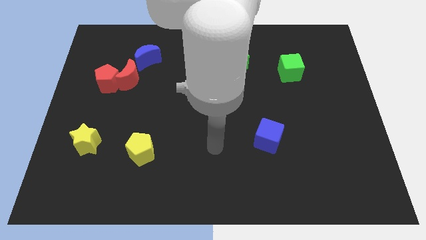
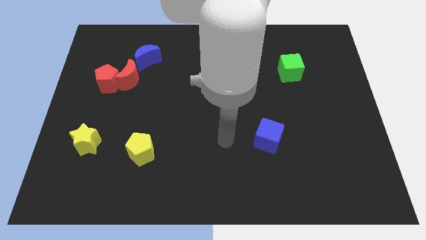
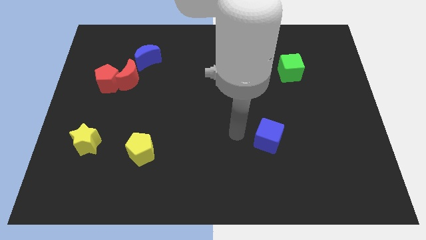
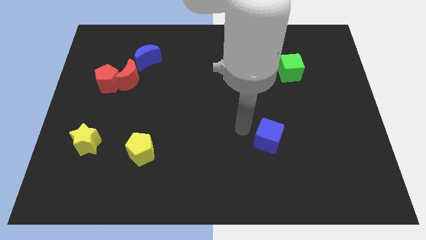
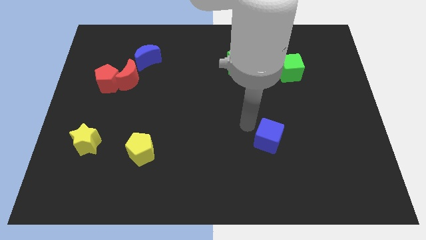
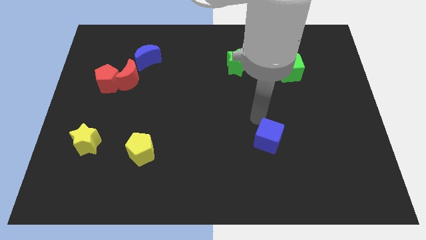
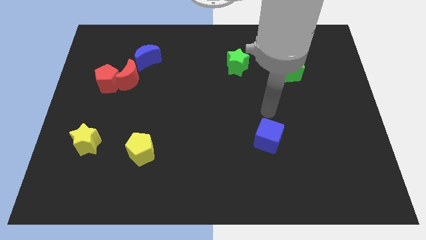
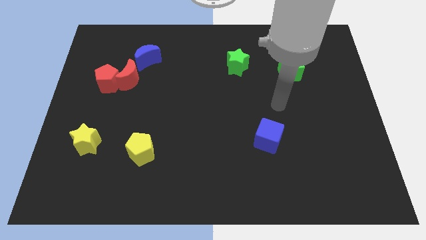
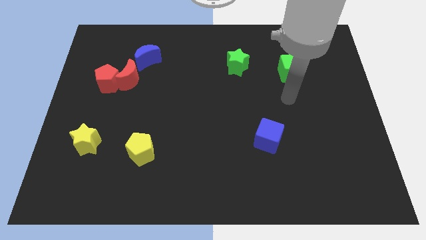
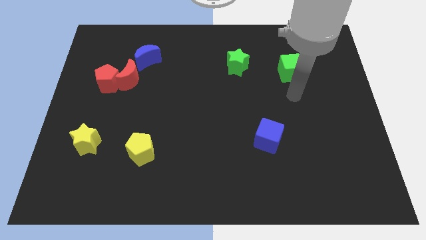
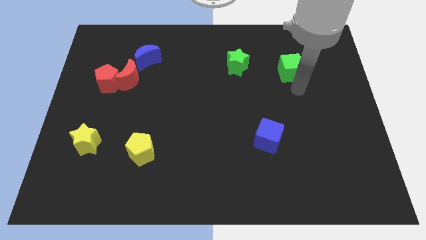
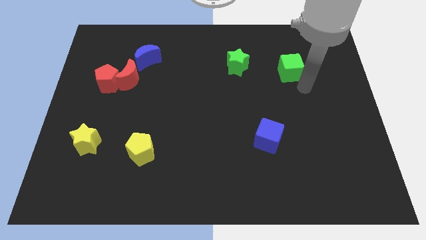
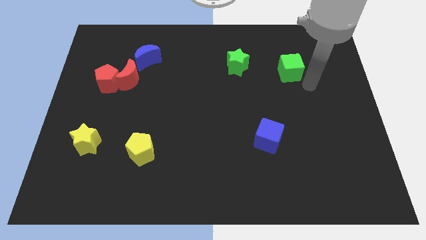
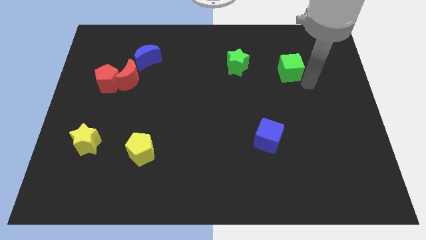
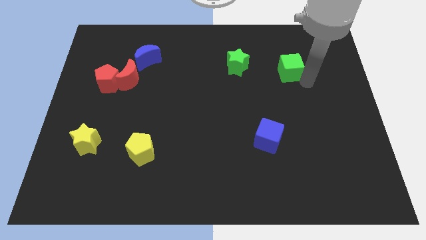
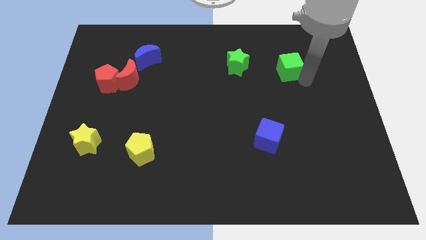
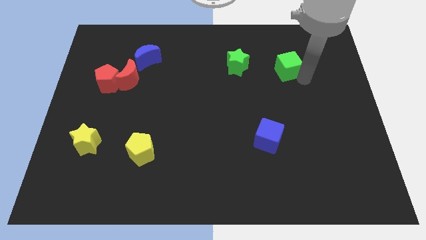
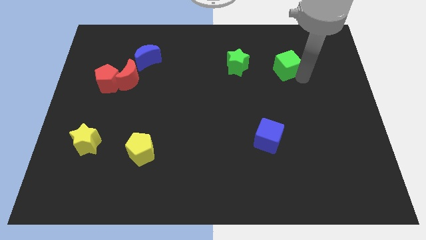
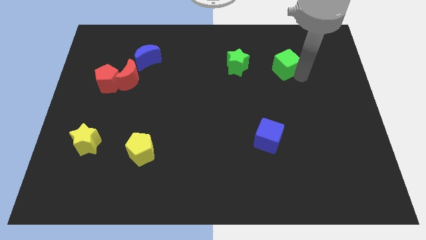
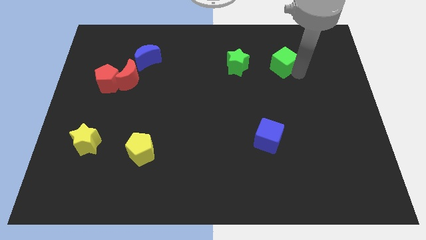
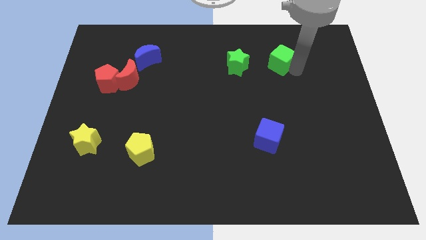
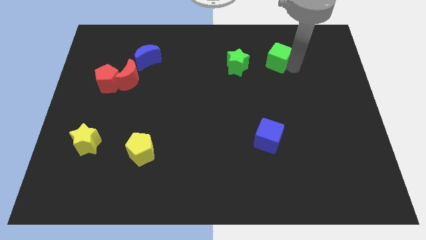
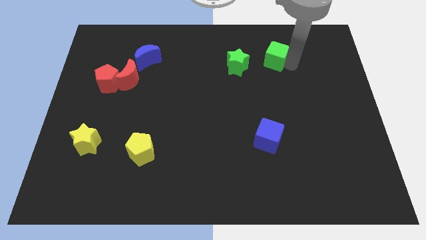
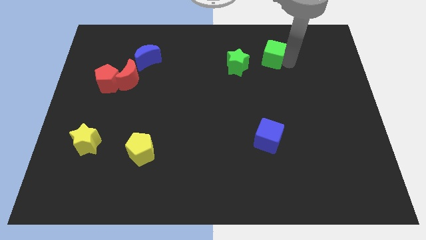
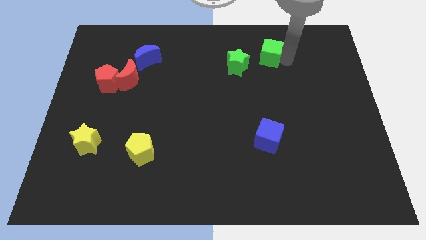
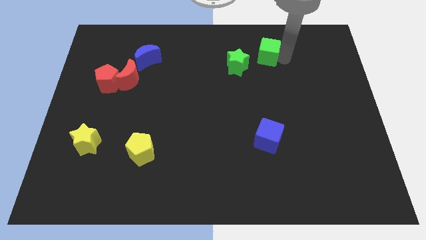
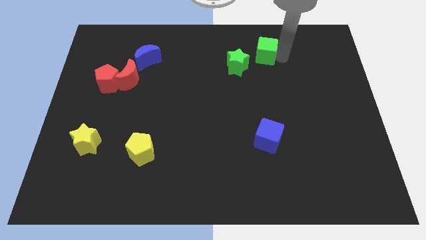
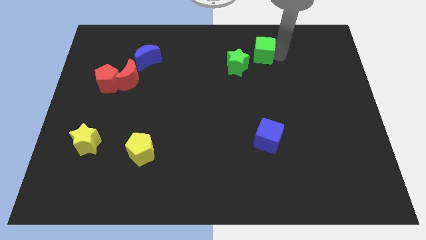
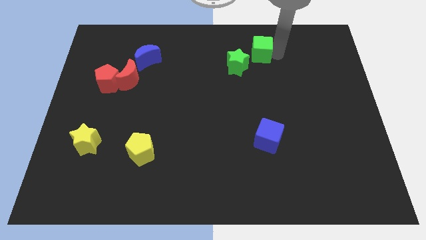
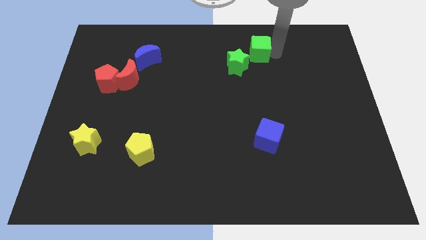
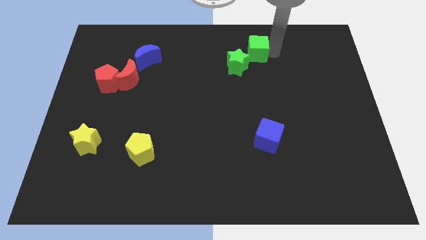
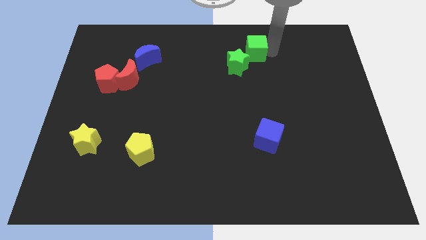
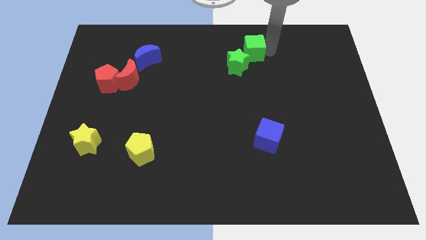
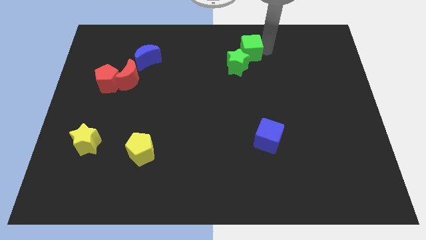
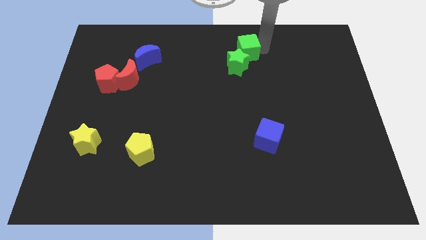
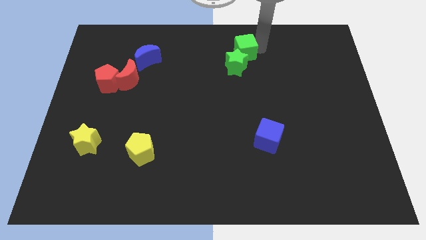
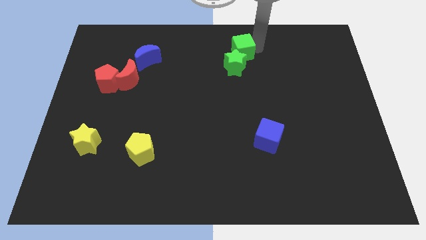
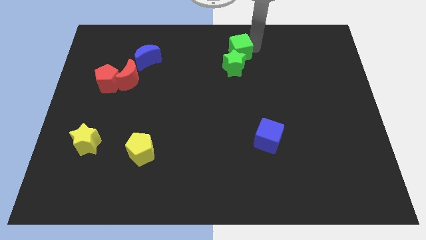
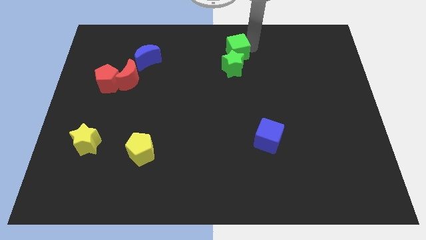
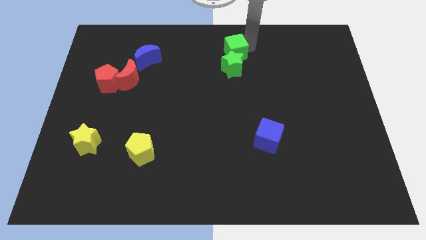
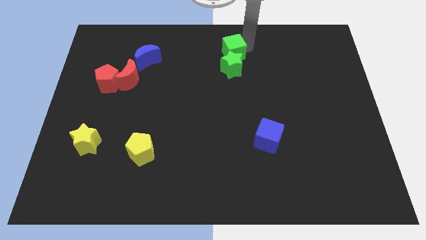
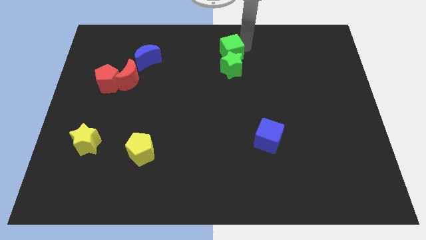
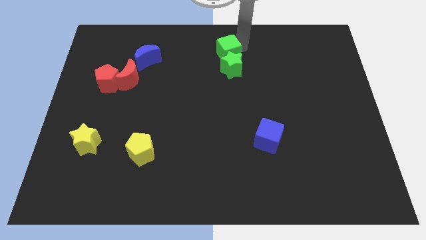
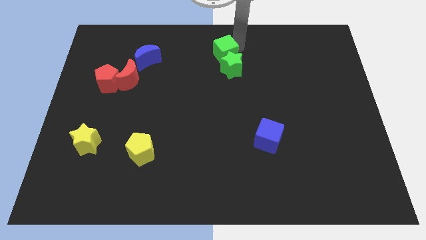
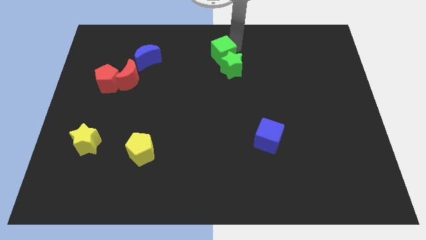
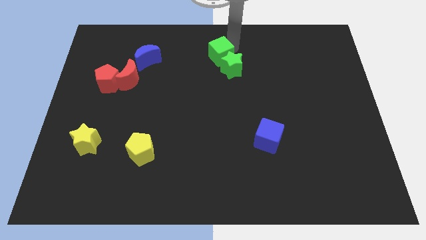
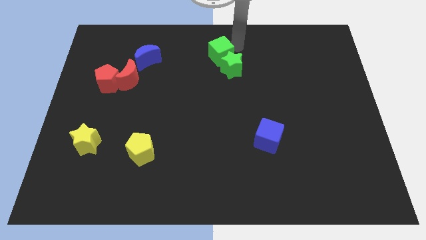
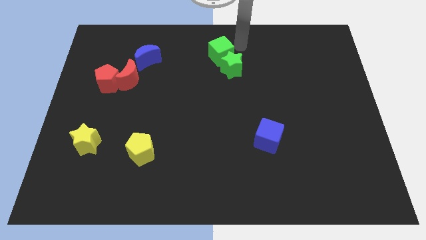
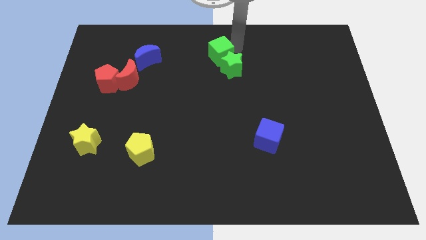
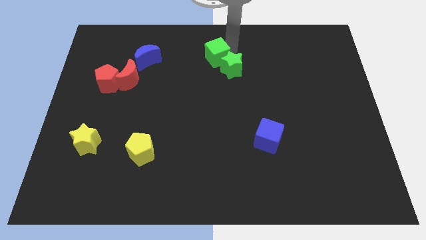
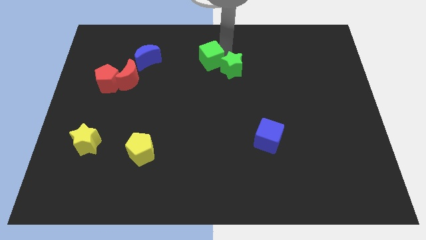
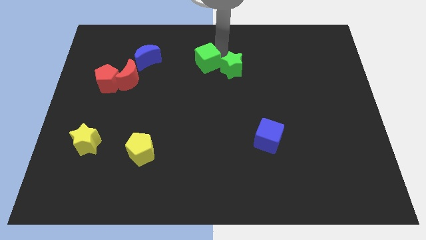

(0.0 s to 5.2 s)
push the green cube to the left

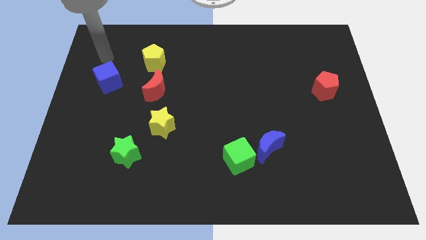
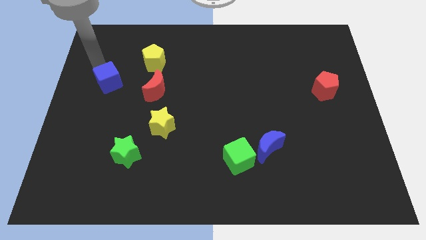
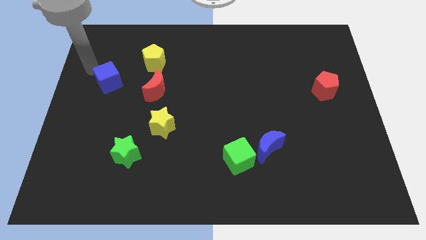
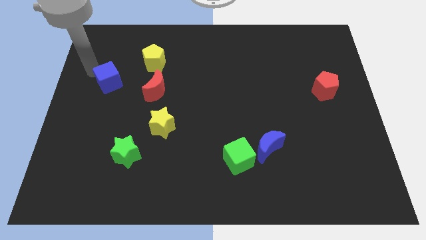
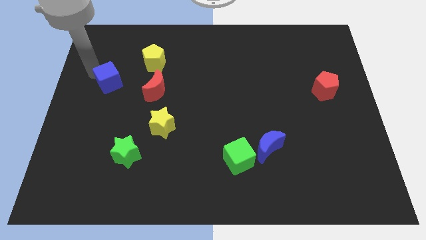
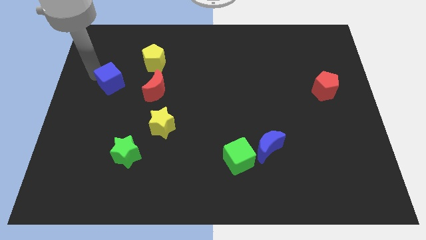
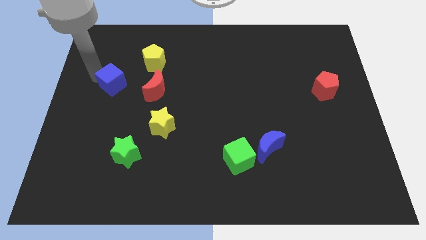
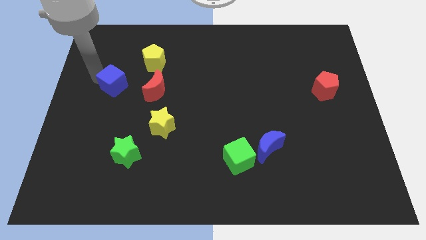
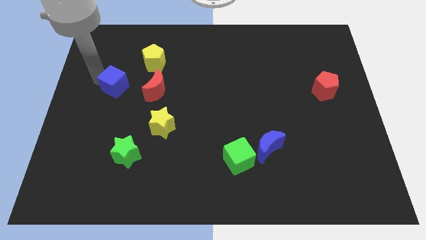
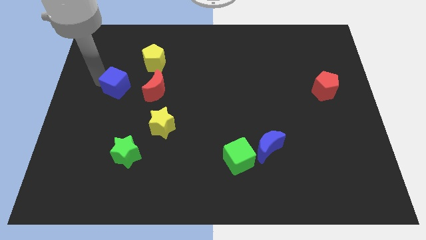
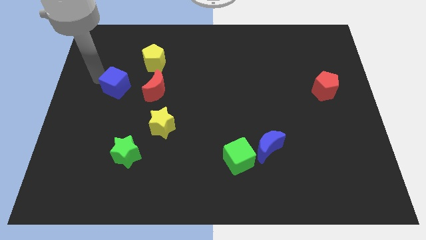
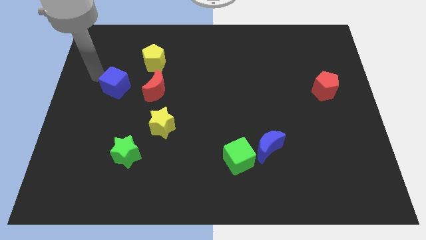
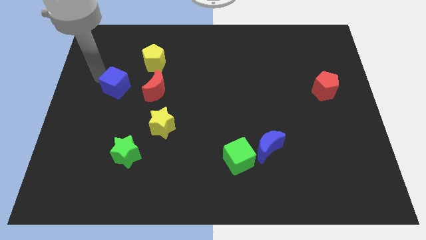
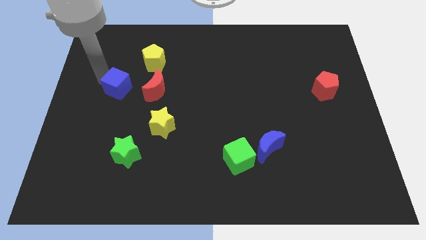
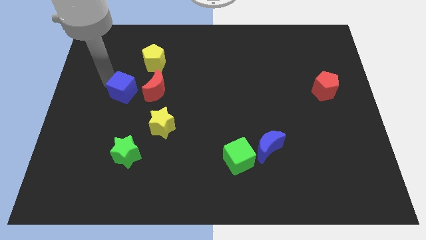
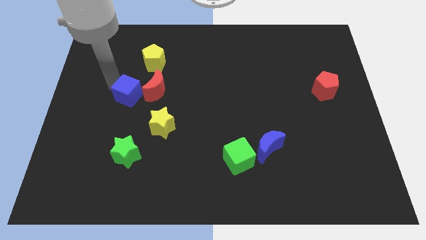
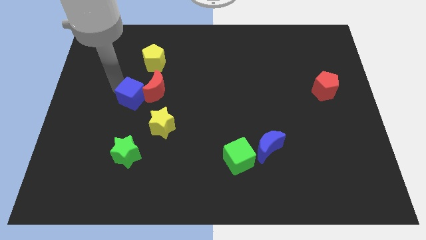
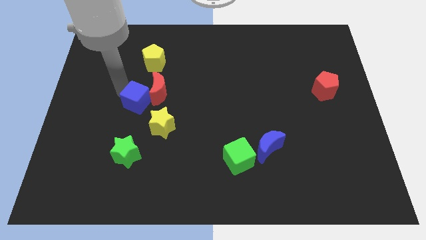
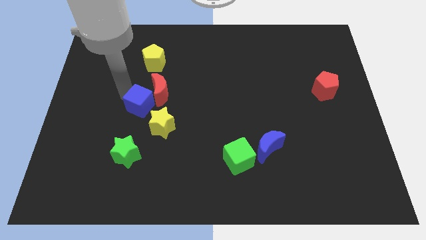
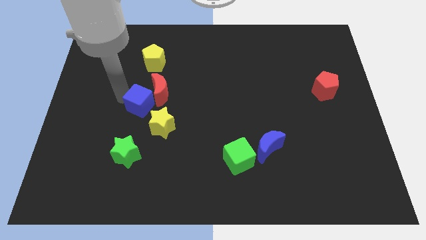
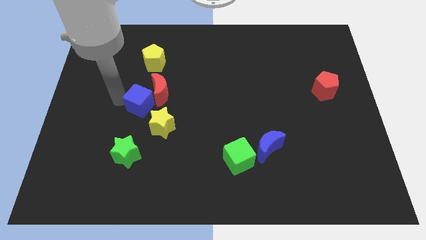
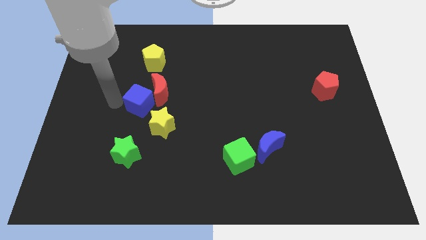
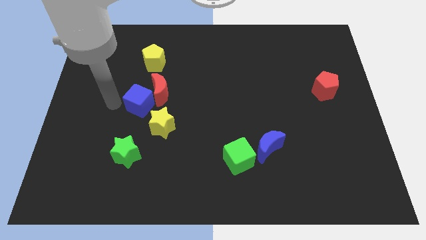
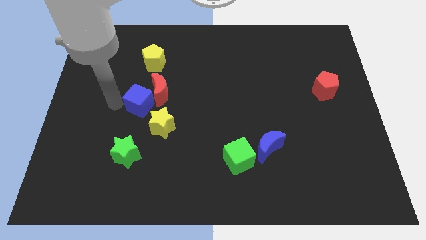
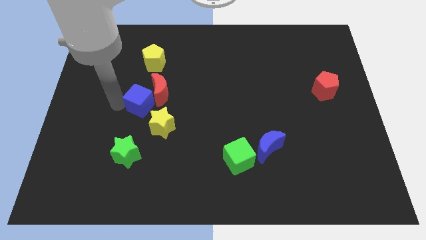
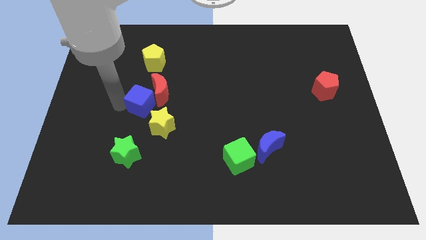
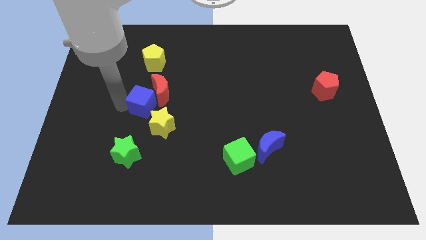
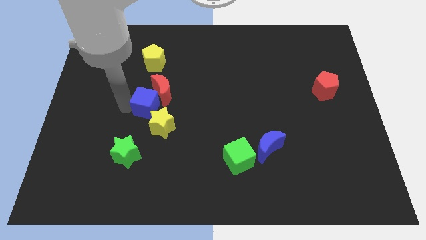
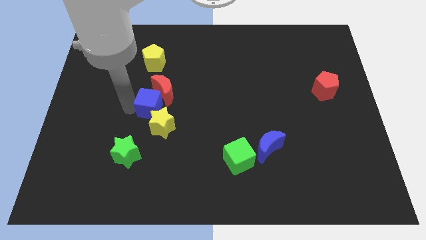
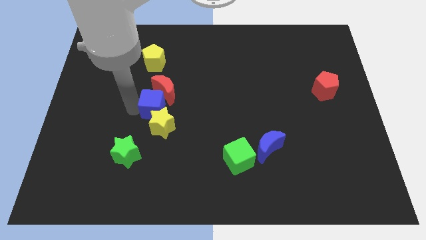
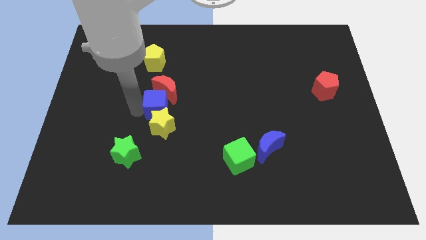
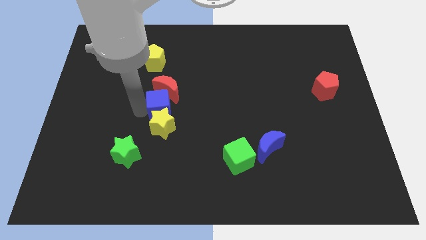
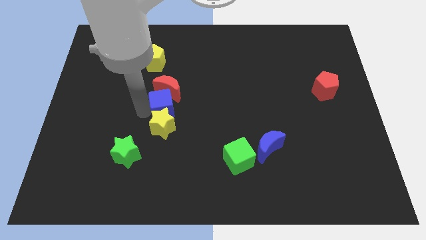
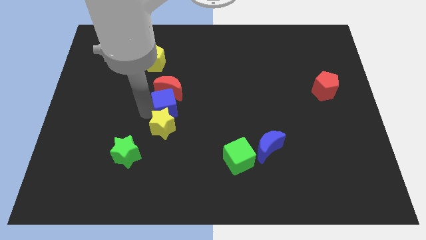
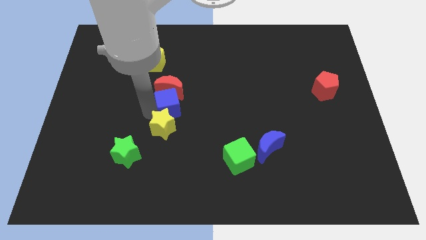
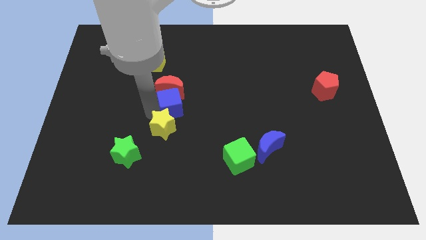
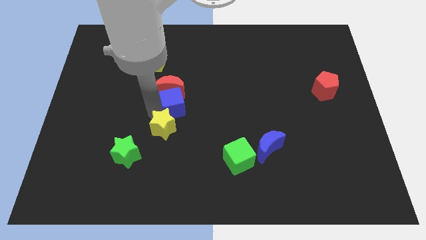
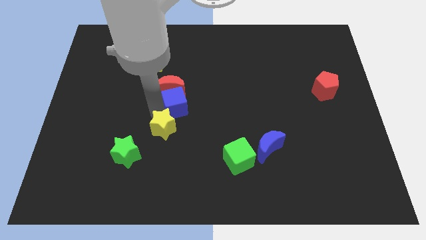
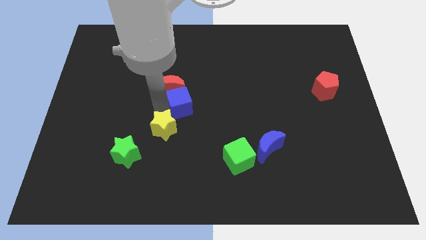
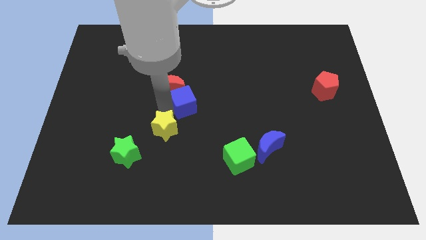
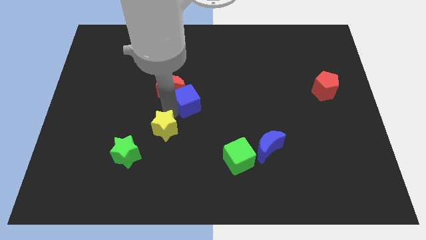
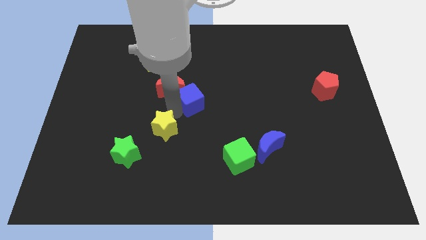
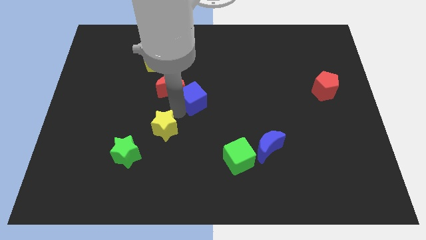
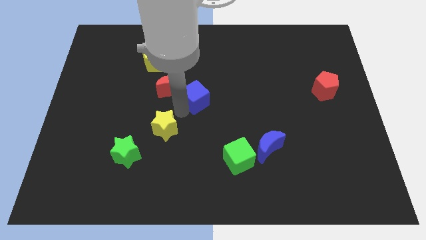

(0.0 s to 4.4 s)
slide the blue cube to the right
